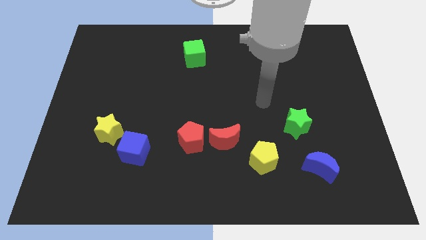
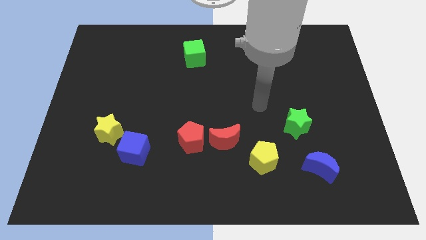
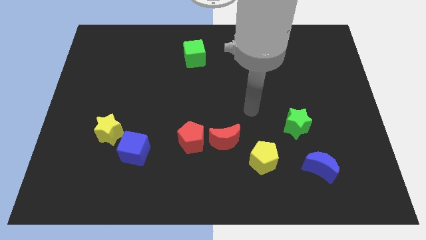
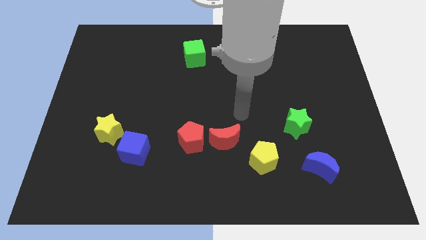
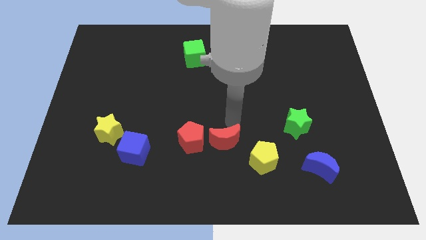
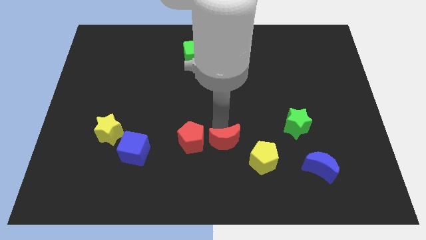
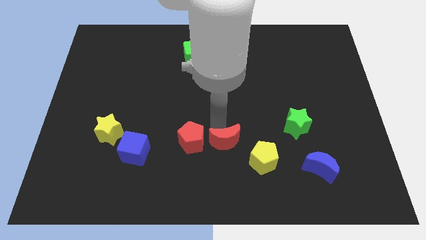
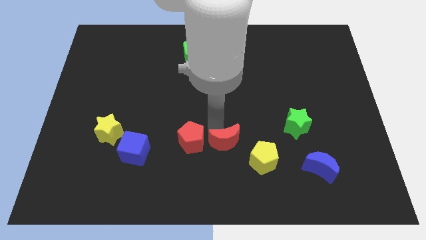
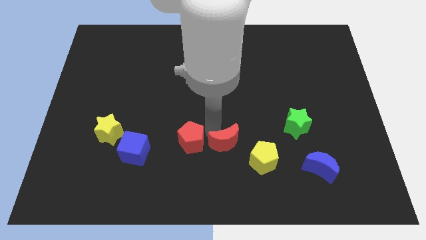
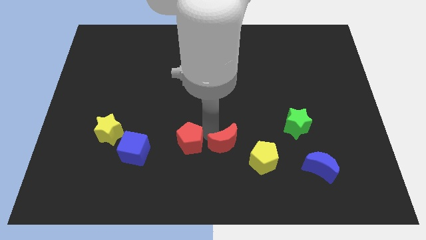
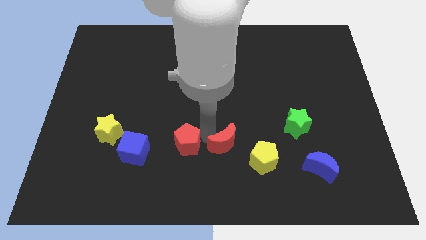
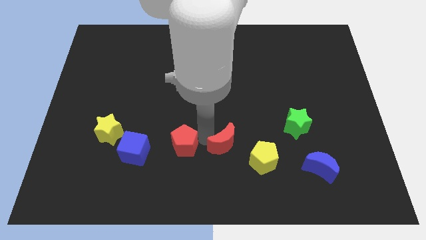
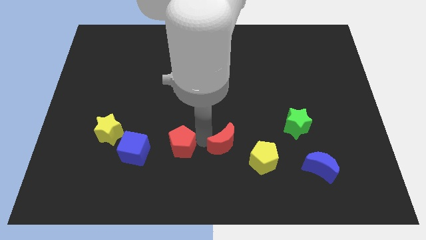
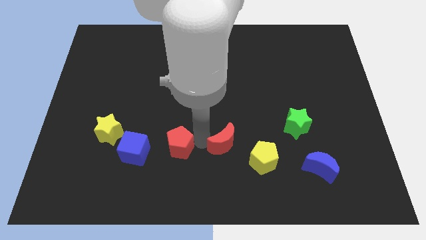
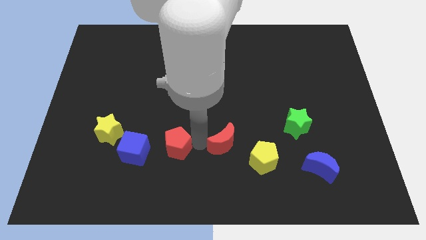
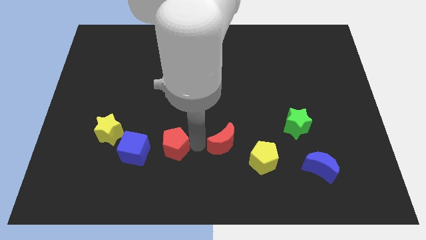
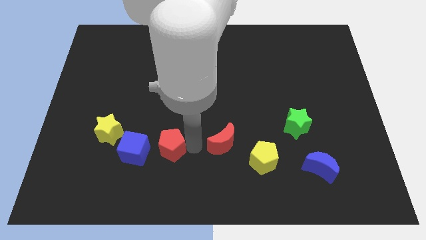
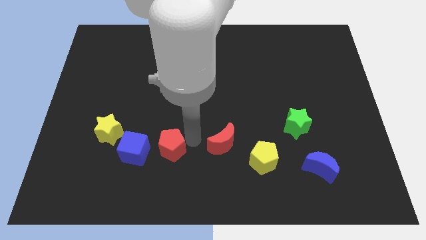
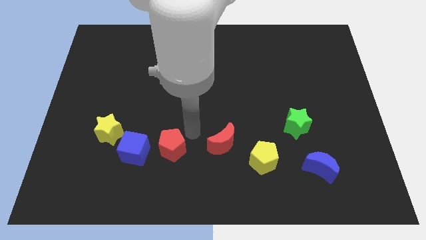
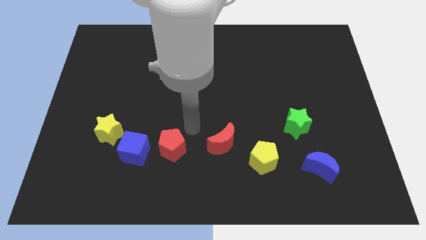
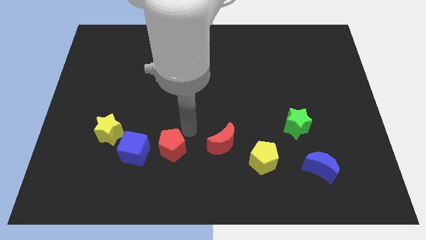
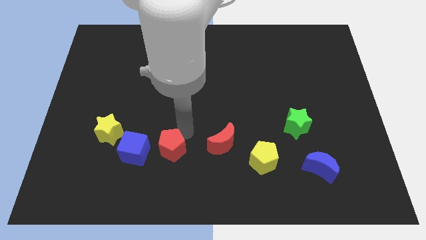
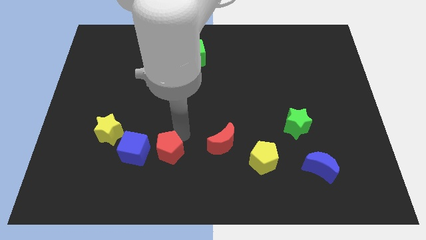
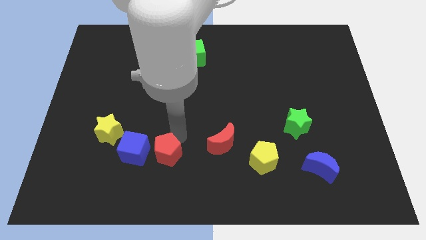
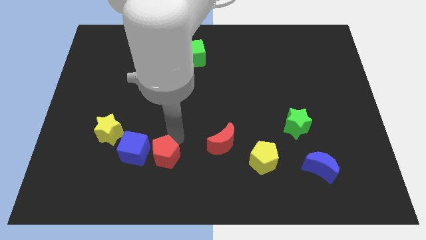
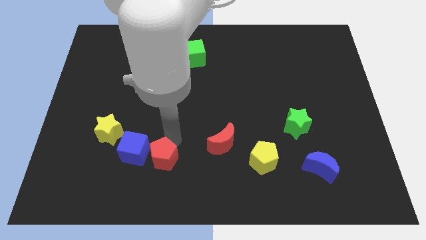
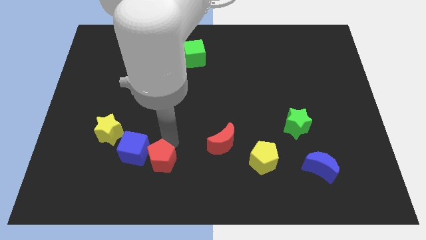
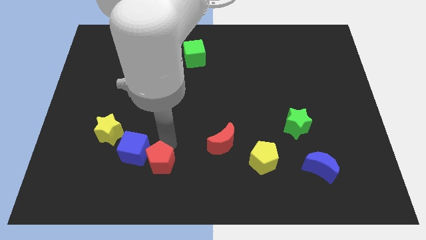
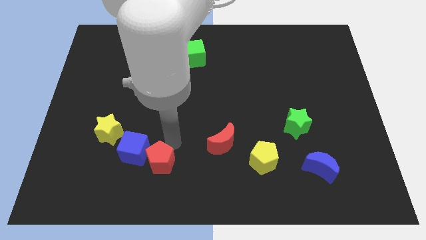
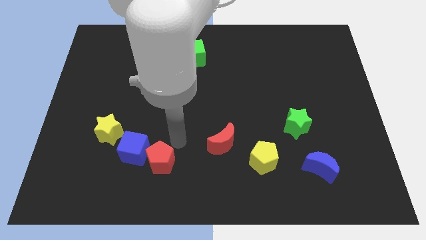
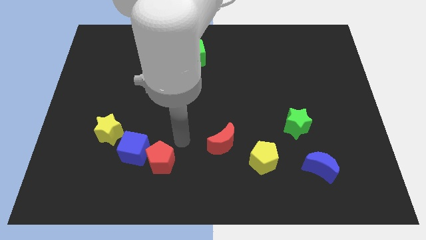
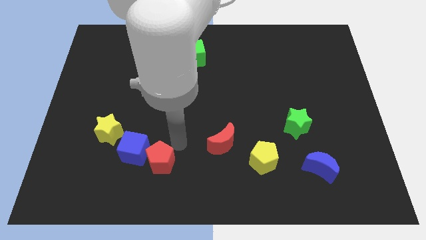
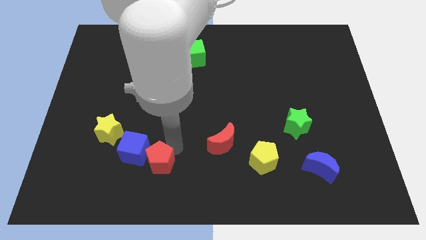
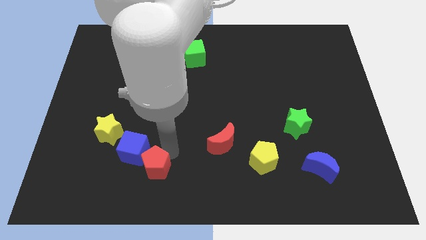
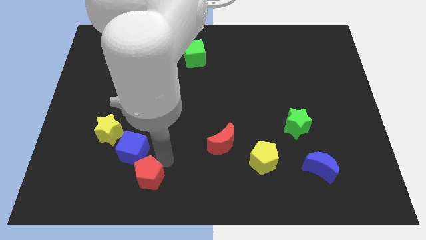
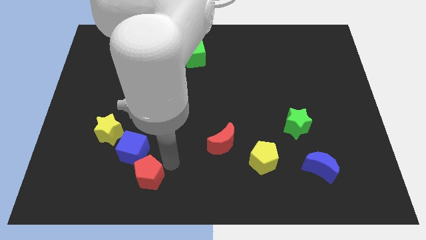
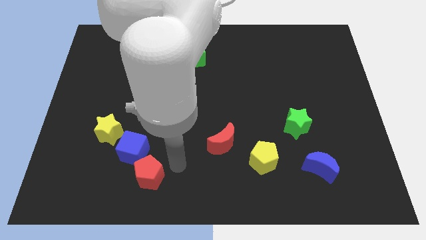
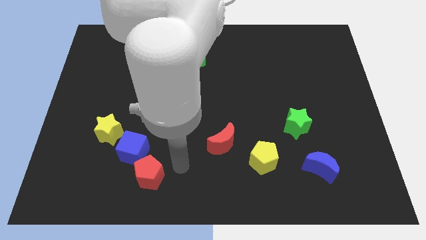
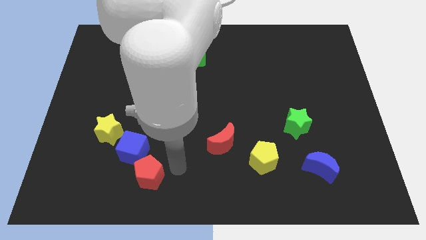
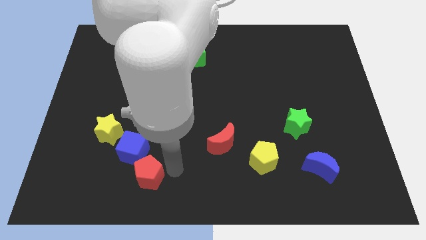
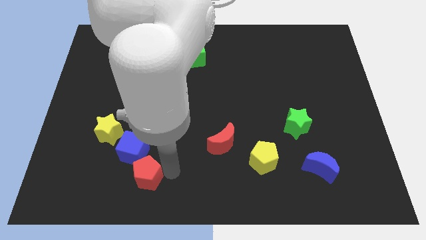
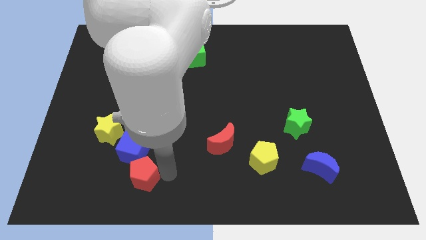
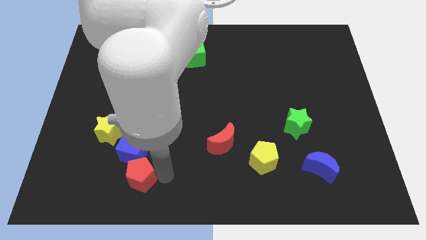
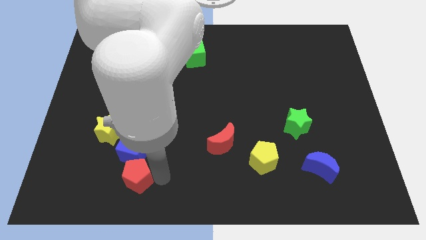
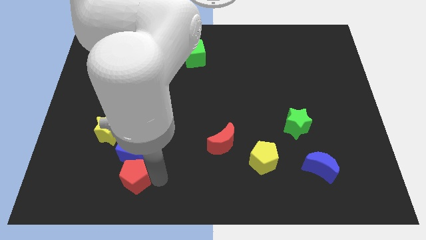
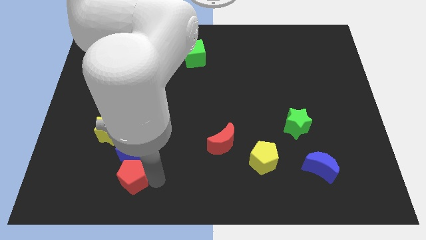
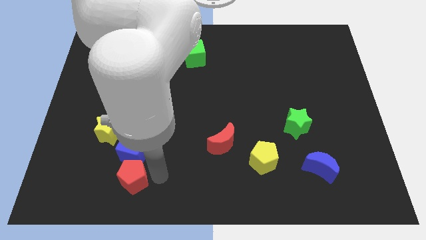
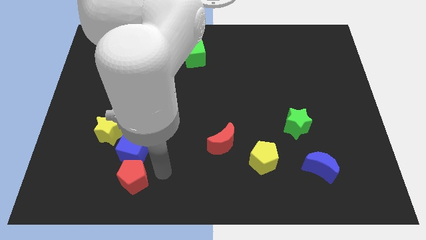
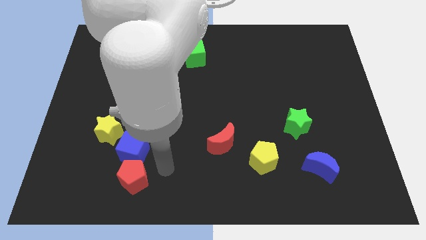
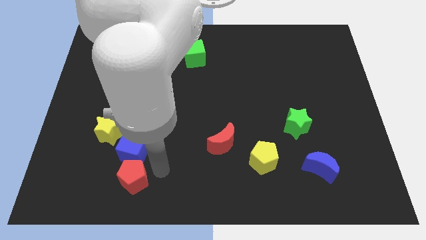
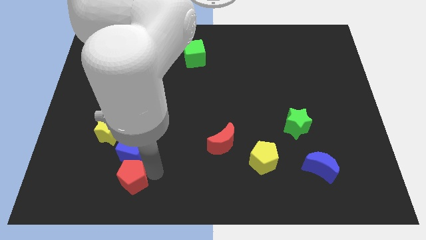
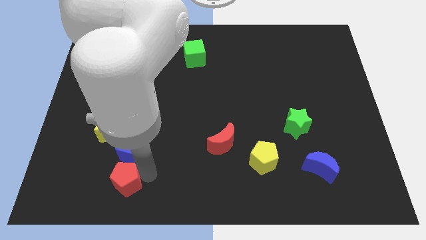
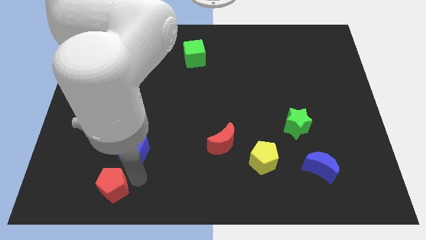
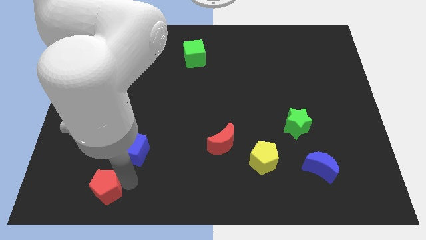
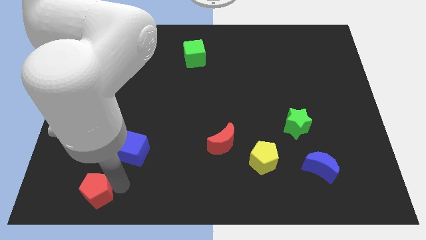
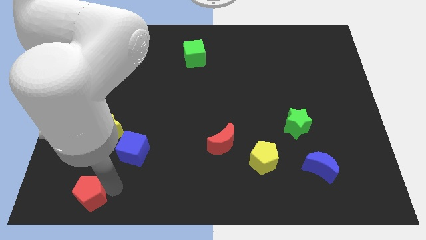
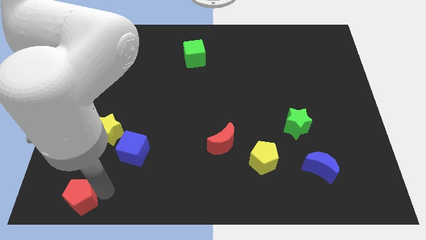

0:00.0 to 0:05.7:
put the red pentagon to the bottom left corner
